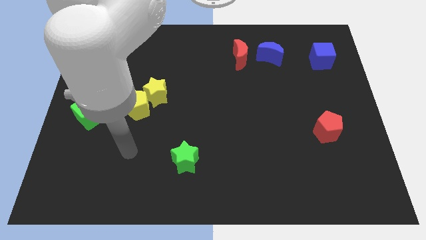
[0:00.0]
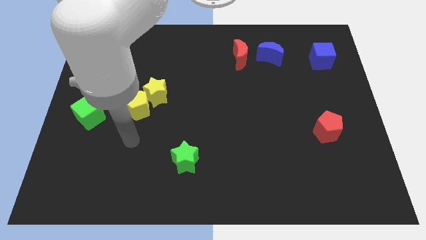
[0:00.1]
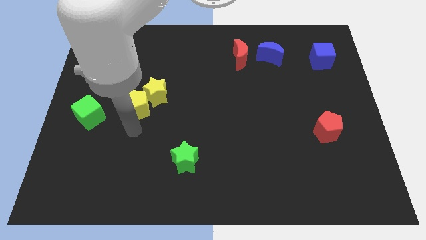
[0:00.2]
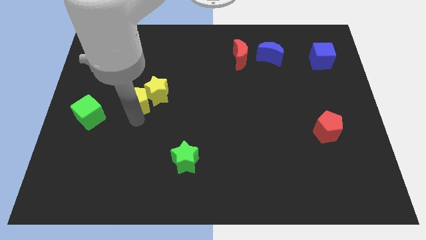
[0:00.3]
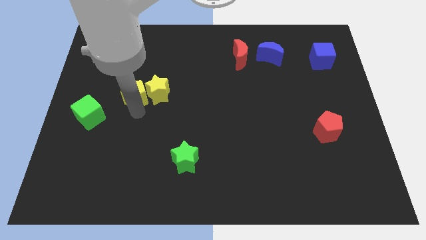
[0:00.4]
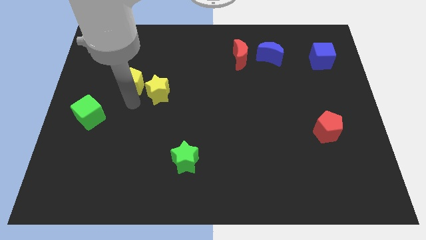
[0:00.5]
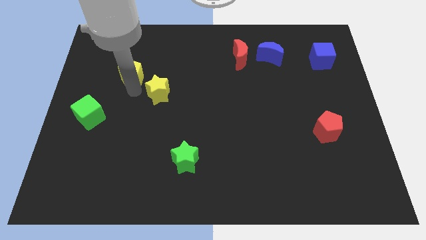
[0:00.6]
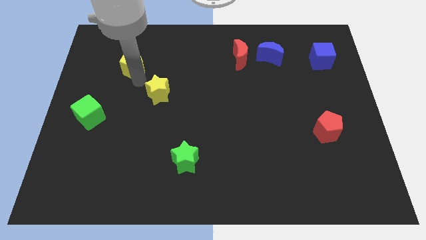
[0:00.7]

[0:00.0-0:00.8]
pull the yellow star apart from the yellow pentagon

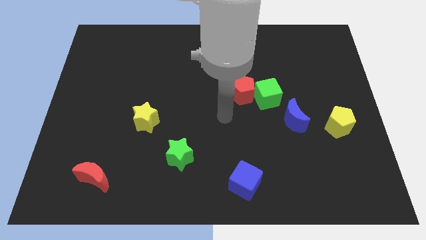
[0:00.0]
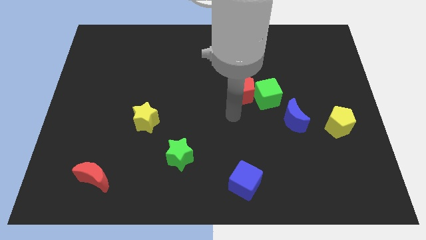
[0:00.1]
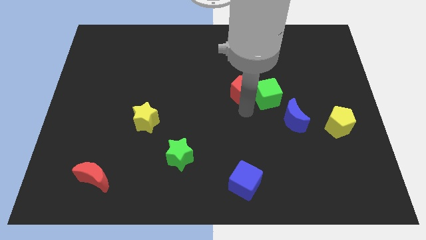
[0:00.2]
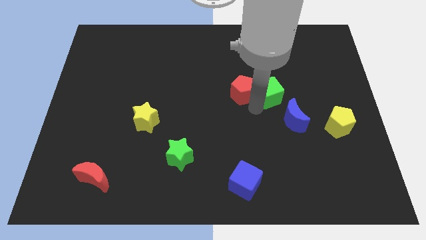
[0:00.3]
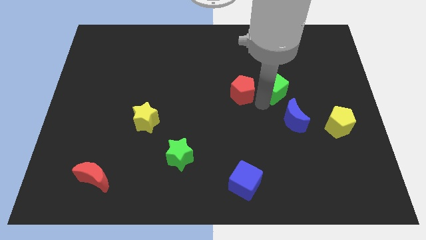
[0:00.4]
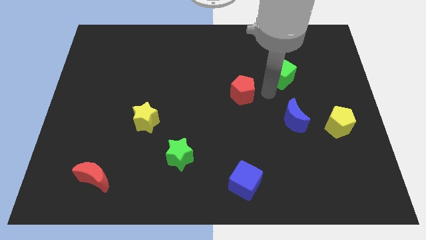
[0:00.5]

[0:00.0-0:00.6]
move the red pentagon away from the green cube

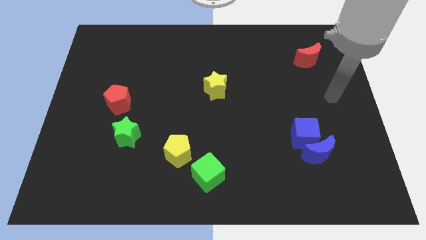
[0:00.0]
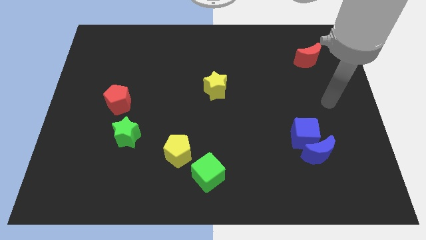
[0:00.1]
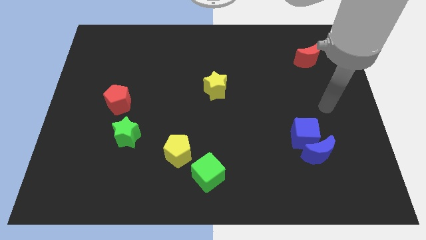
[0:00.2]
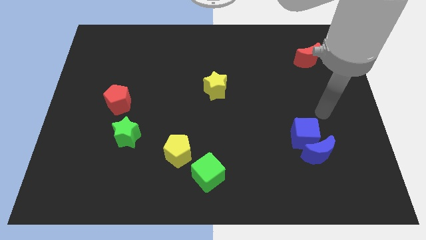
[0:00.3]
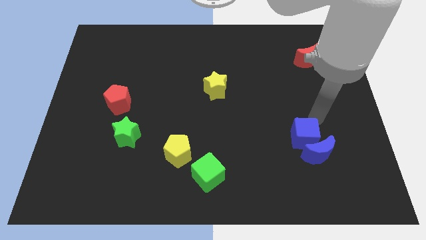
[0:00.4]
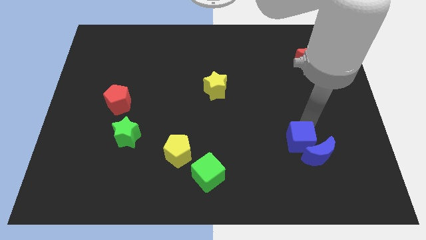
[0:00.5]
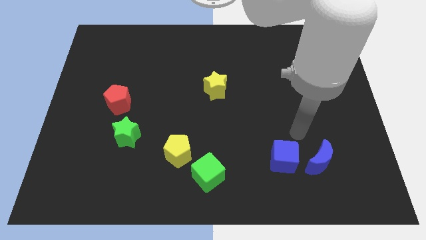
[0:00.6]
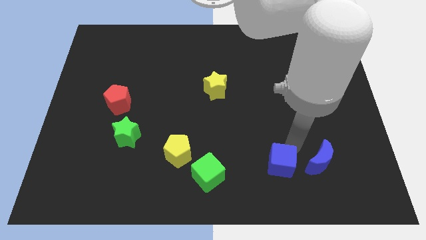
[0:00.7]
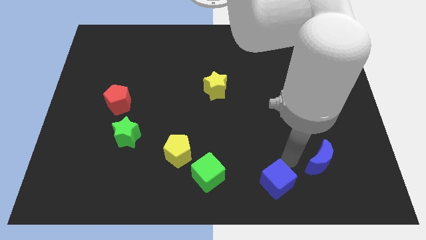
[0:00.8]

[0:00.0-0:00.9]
separate the blue moon from the blue cube

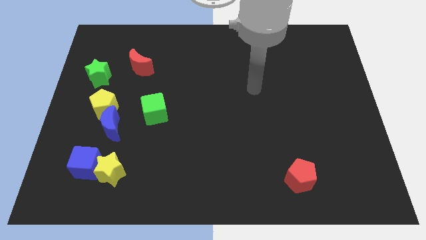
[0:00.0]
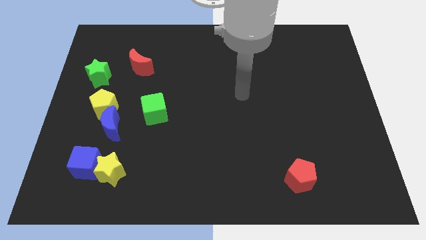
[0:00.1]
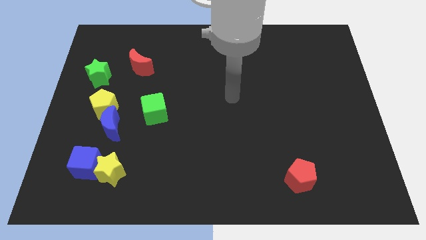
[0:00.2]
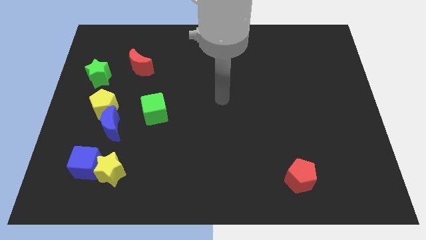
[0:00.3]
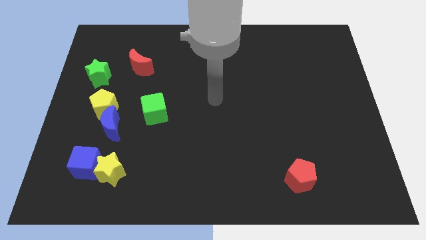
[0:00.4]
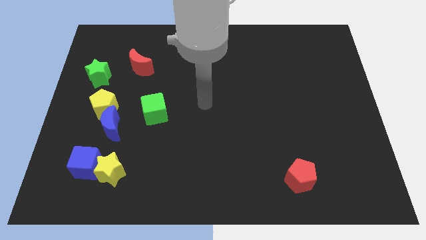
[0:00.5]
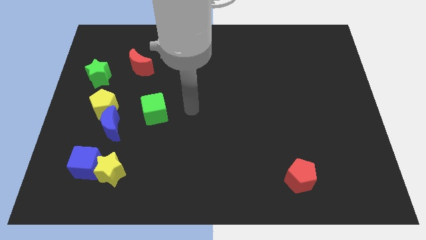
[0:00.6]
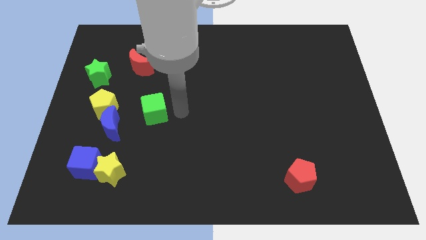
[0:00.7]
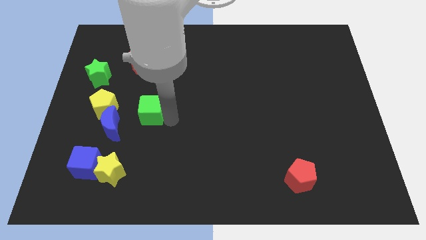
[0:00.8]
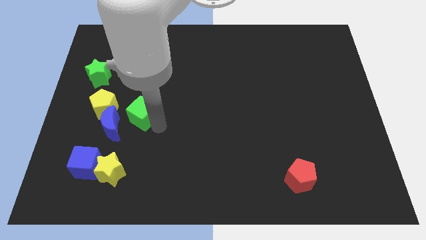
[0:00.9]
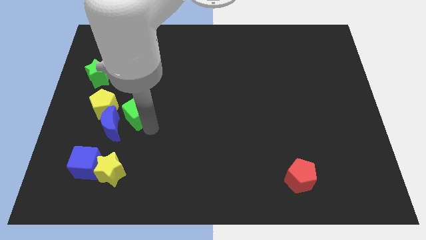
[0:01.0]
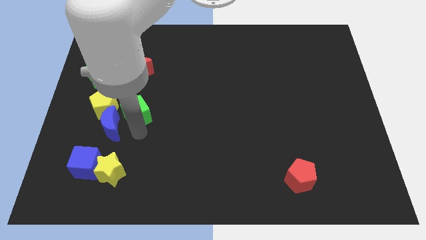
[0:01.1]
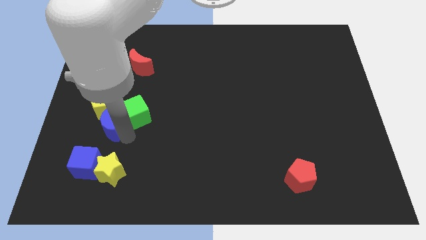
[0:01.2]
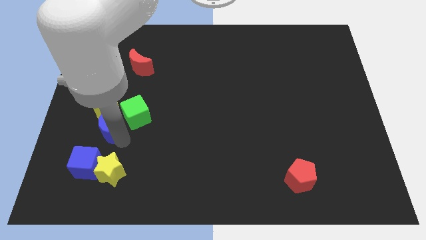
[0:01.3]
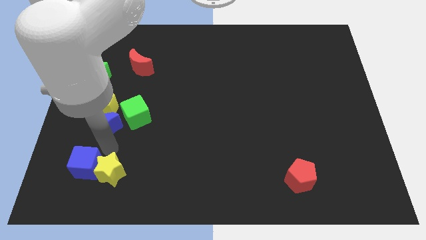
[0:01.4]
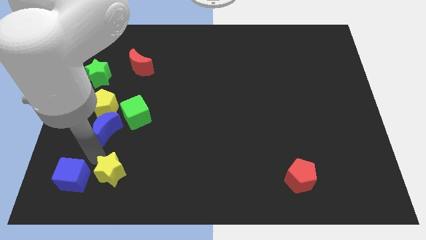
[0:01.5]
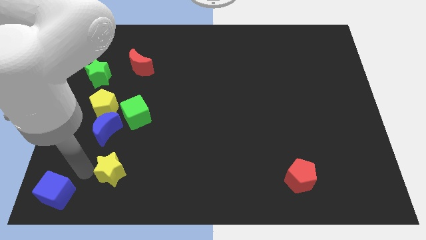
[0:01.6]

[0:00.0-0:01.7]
pull the yellow star apart from the blue cube

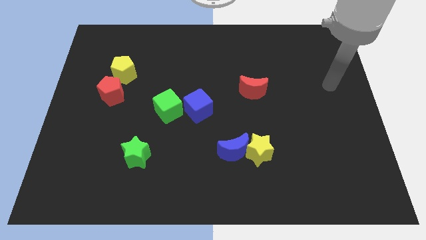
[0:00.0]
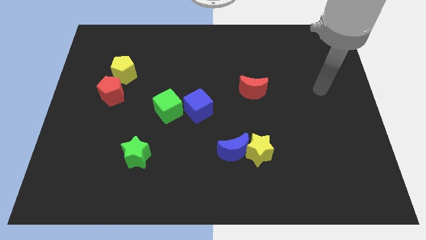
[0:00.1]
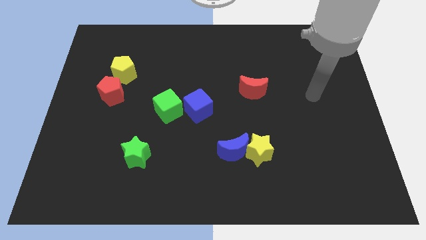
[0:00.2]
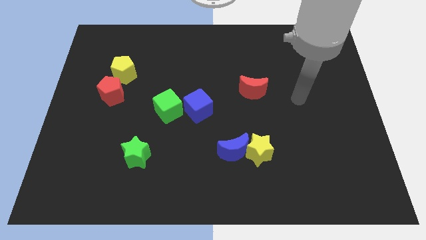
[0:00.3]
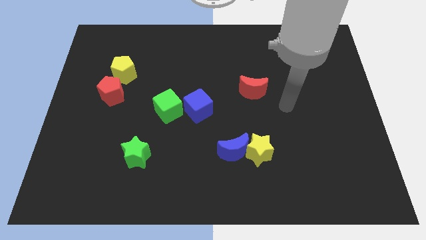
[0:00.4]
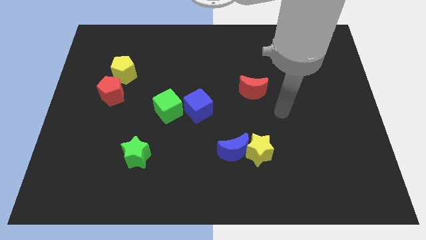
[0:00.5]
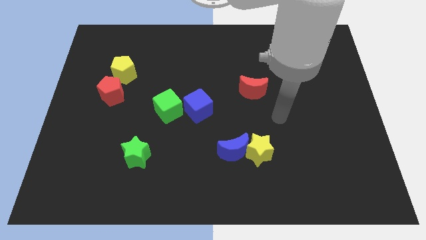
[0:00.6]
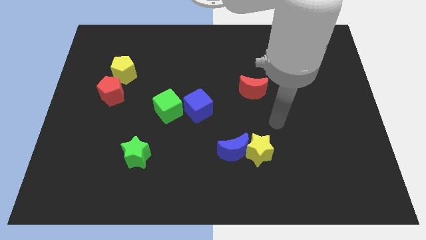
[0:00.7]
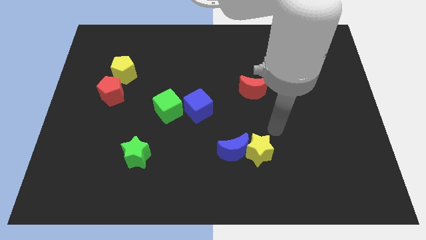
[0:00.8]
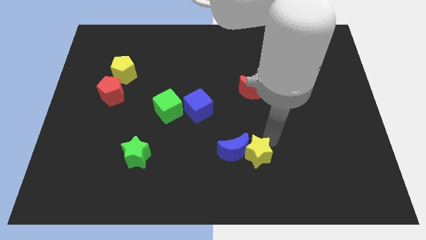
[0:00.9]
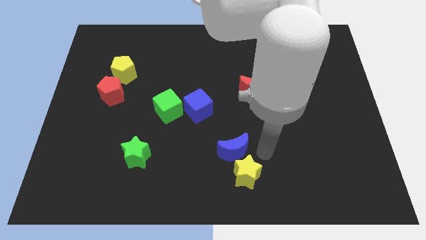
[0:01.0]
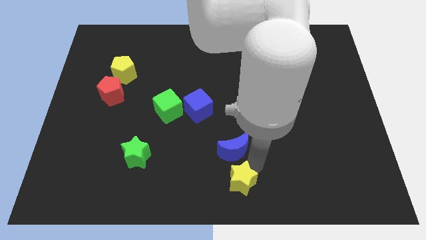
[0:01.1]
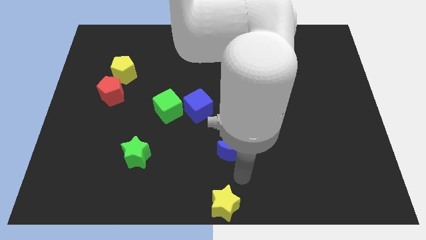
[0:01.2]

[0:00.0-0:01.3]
pull the blue moon apart from the yellow star

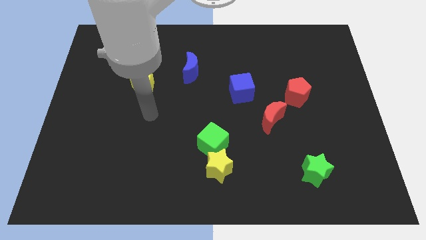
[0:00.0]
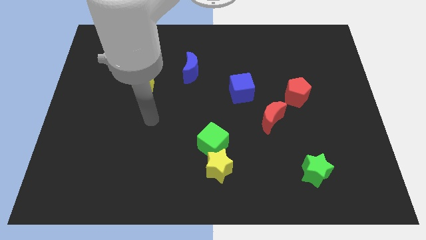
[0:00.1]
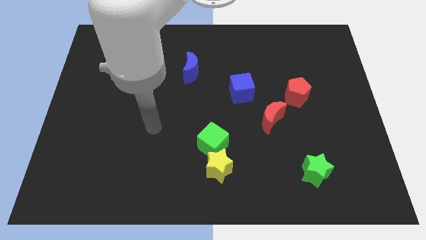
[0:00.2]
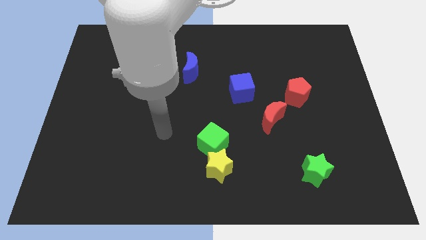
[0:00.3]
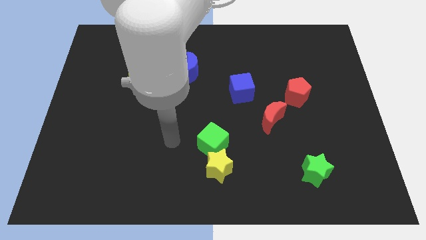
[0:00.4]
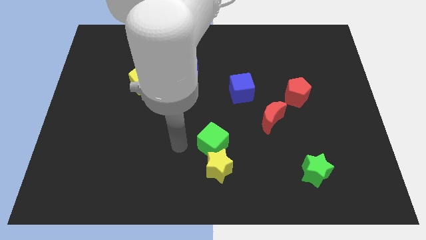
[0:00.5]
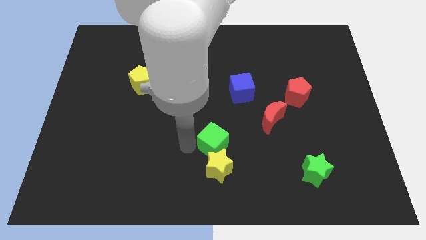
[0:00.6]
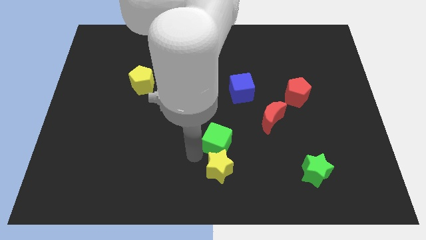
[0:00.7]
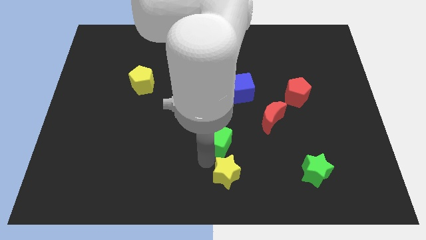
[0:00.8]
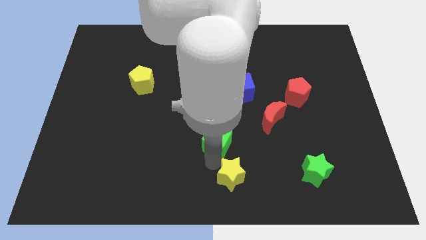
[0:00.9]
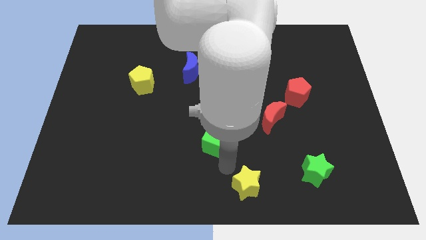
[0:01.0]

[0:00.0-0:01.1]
separate the green cube from the yellow star

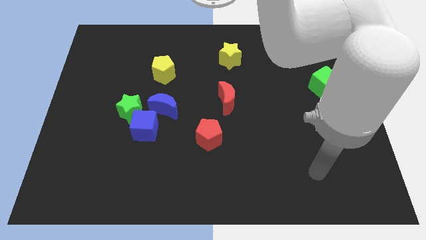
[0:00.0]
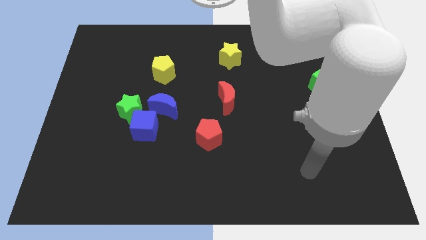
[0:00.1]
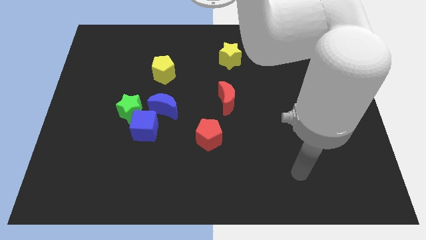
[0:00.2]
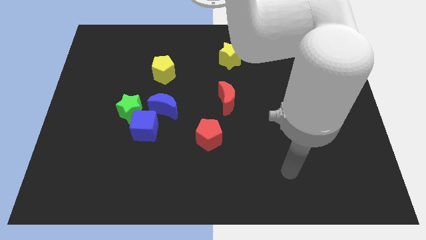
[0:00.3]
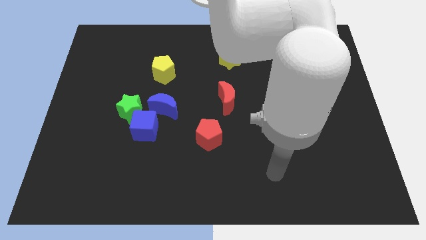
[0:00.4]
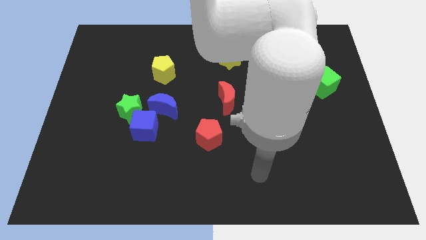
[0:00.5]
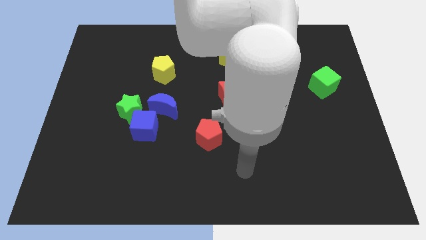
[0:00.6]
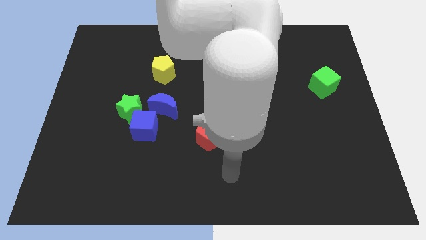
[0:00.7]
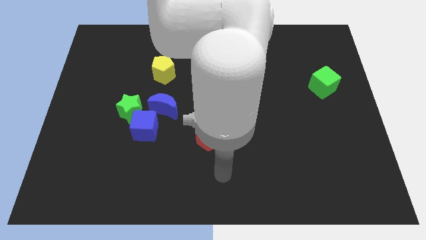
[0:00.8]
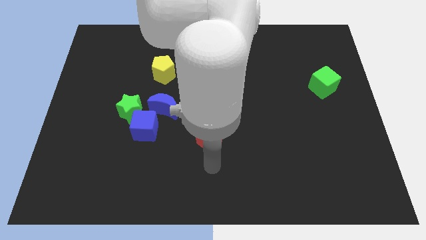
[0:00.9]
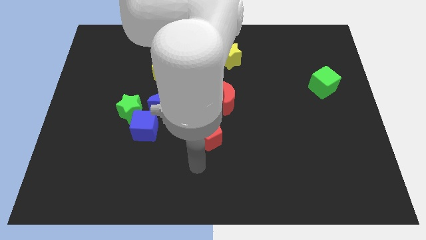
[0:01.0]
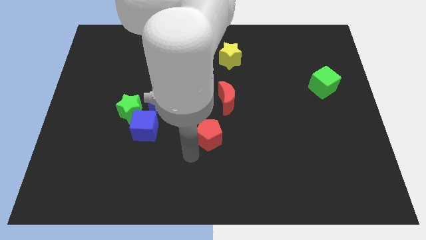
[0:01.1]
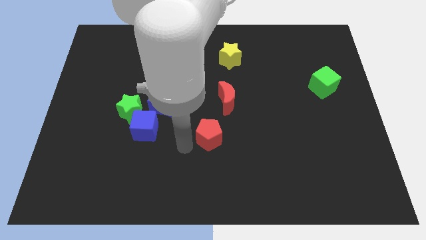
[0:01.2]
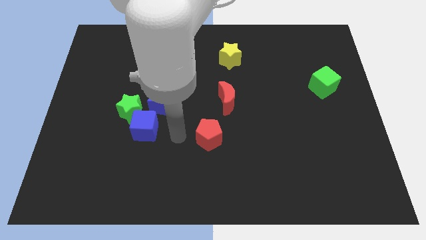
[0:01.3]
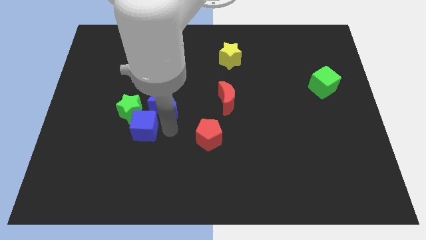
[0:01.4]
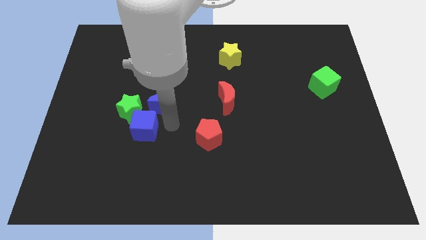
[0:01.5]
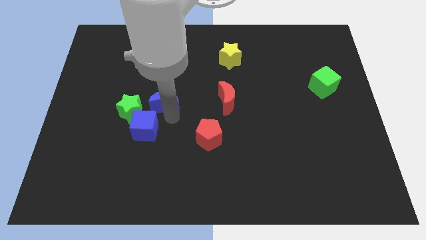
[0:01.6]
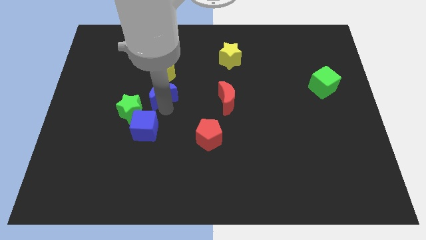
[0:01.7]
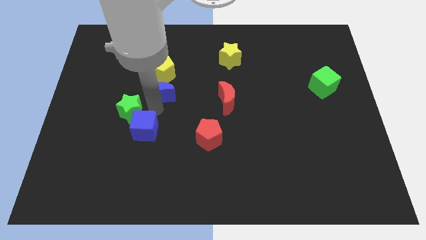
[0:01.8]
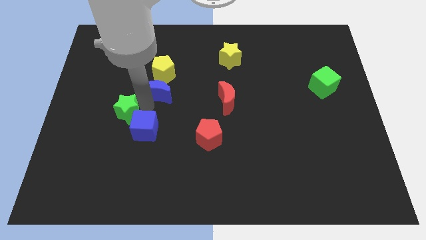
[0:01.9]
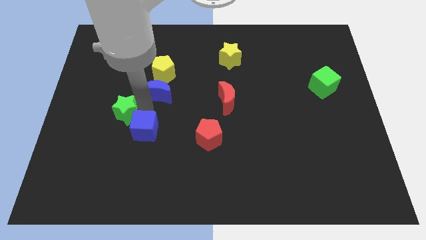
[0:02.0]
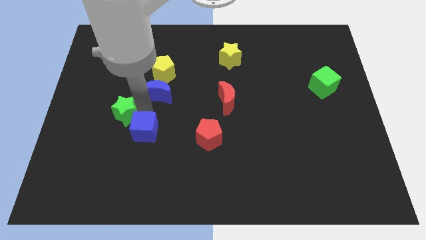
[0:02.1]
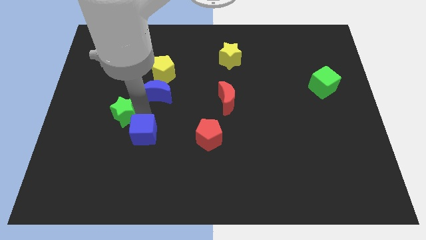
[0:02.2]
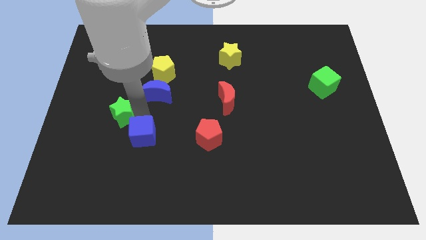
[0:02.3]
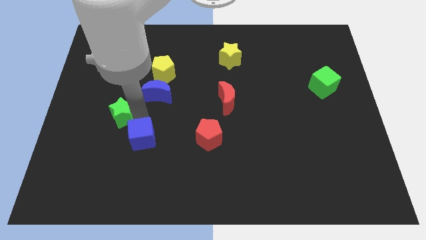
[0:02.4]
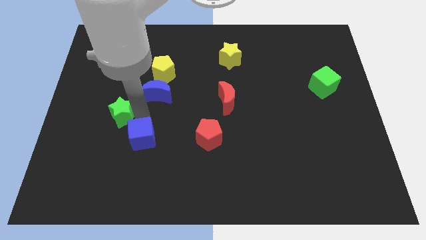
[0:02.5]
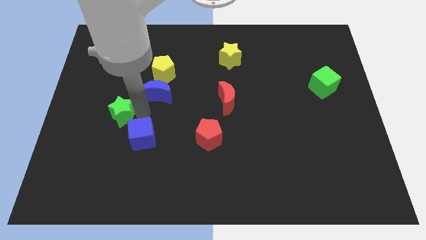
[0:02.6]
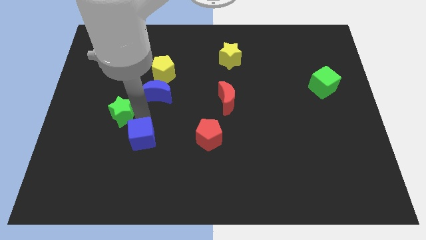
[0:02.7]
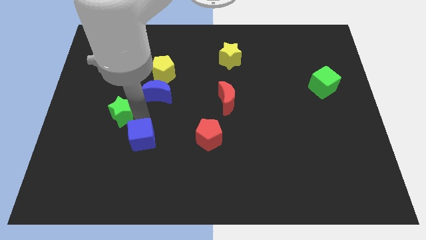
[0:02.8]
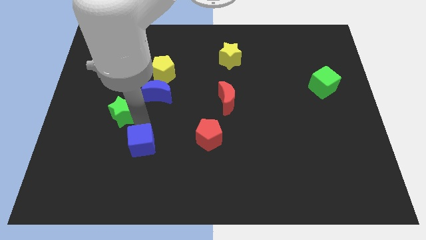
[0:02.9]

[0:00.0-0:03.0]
separate the blue cube from the green star and blue moon
